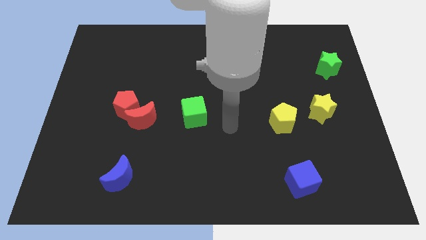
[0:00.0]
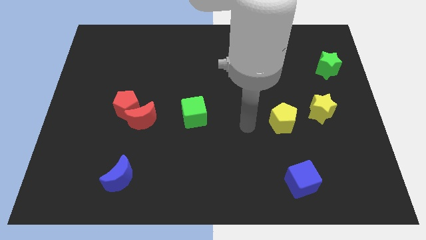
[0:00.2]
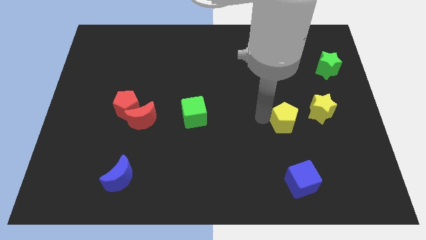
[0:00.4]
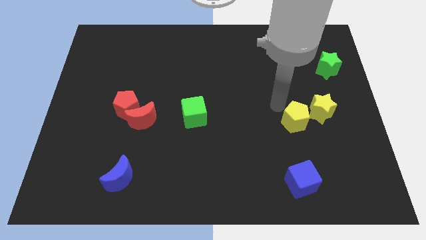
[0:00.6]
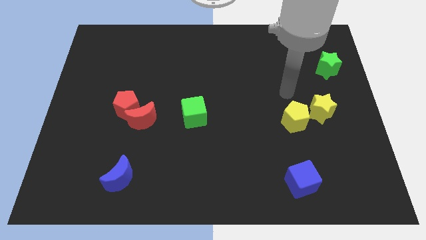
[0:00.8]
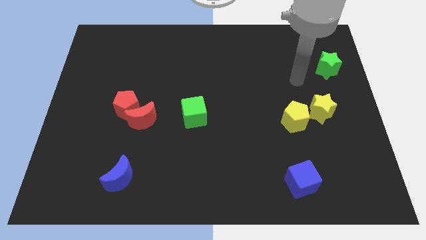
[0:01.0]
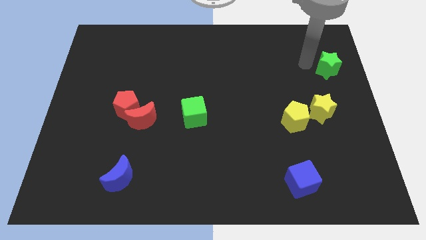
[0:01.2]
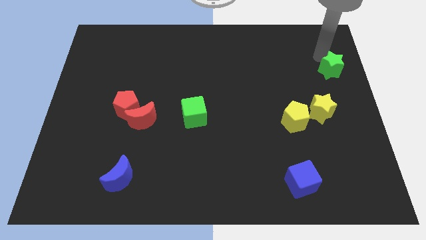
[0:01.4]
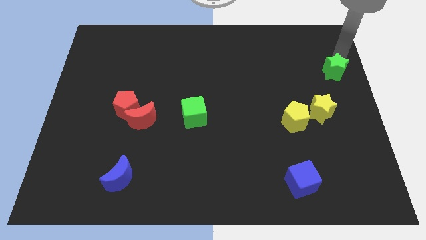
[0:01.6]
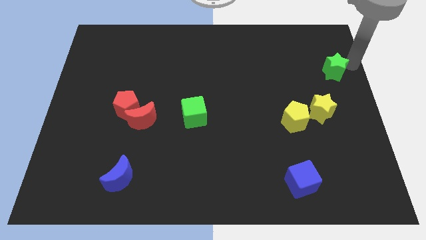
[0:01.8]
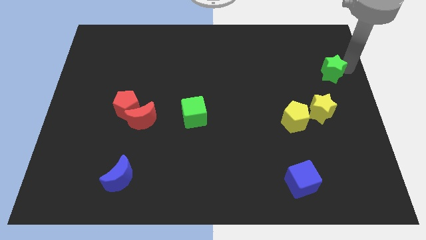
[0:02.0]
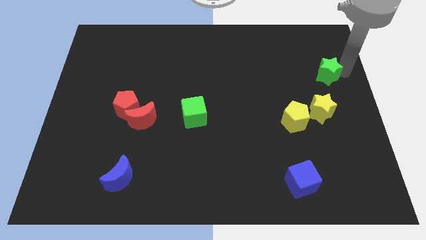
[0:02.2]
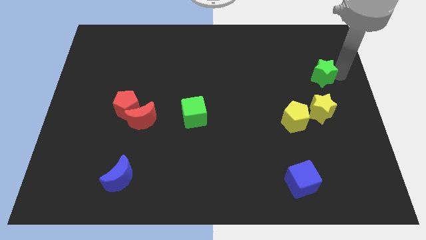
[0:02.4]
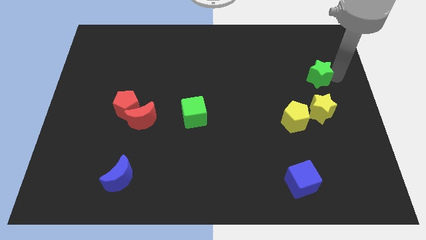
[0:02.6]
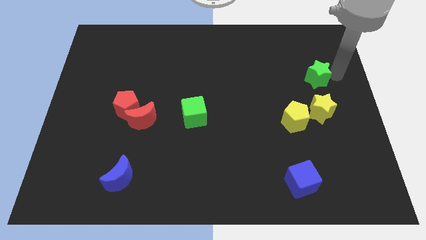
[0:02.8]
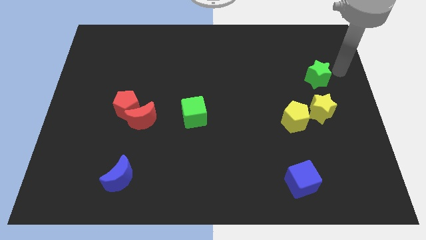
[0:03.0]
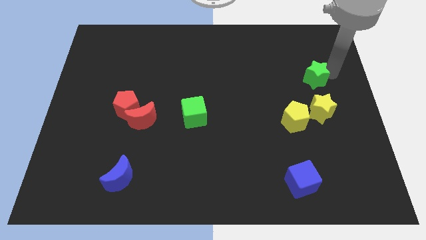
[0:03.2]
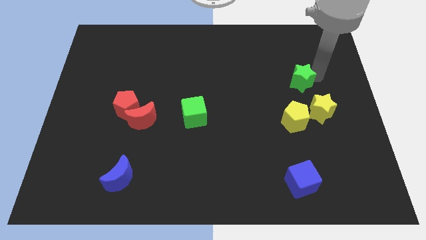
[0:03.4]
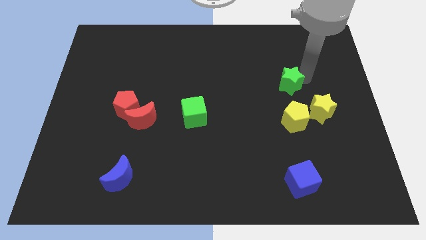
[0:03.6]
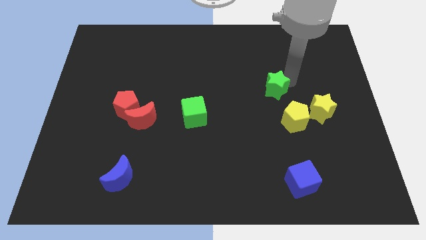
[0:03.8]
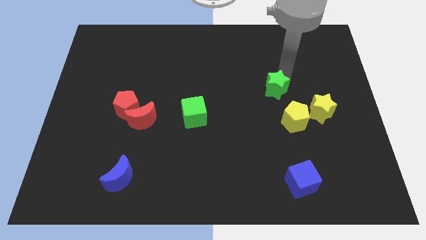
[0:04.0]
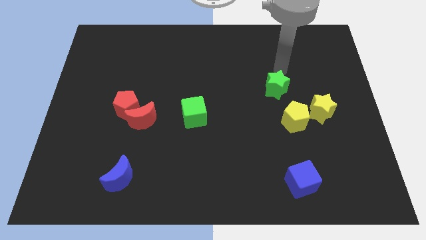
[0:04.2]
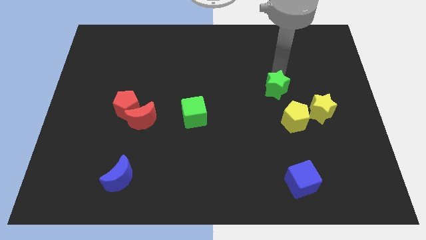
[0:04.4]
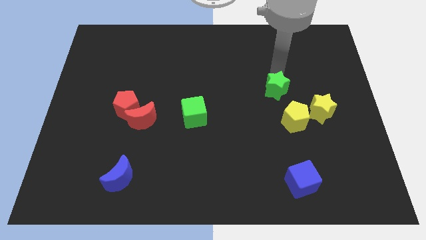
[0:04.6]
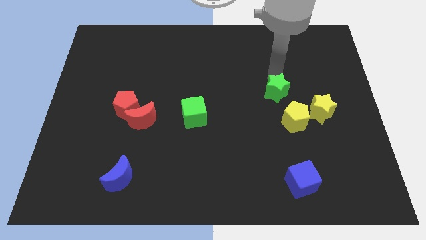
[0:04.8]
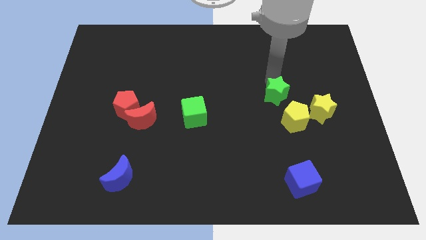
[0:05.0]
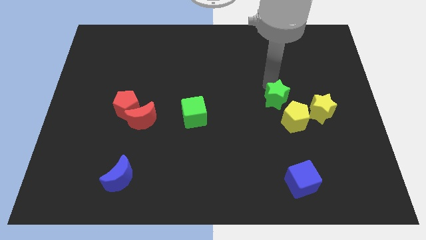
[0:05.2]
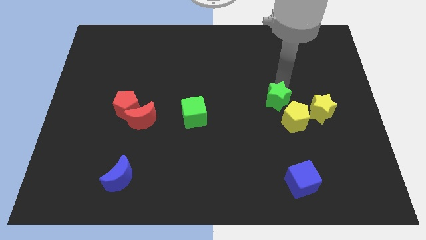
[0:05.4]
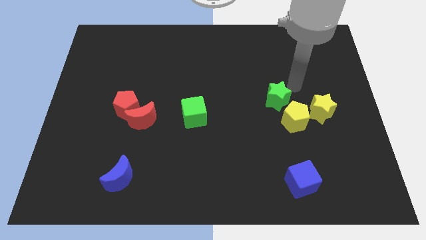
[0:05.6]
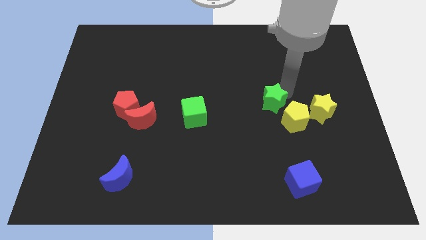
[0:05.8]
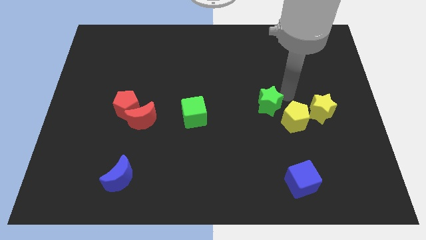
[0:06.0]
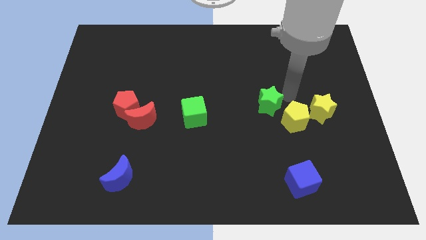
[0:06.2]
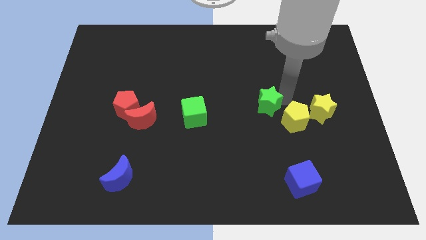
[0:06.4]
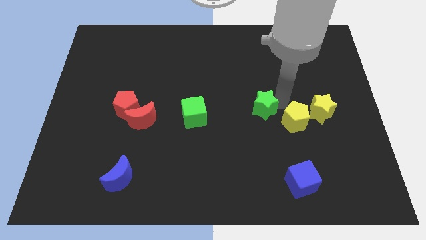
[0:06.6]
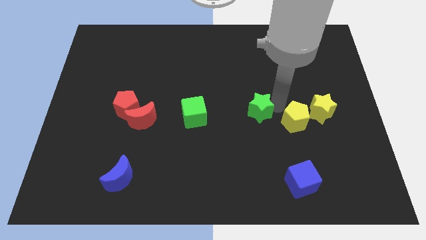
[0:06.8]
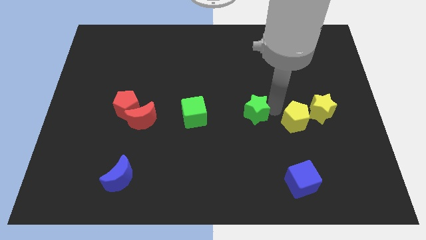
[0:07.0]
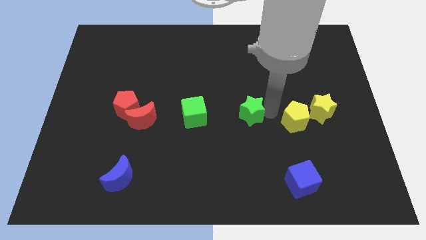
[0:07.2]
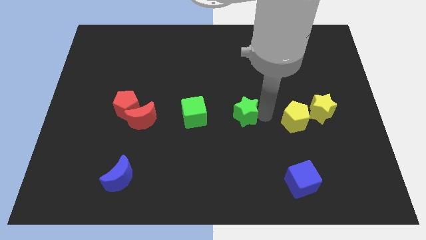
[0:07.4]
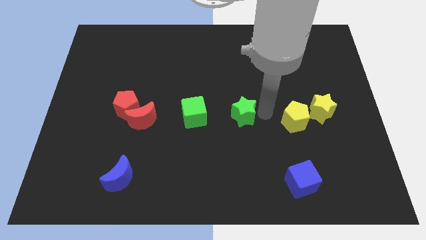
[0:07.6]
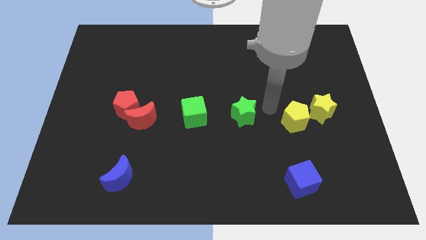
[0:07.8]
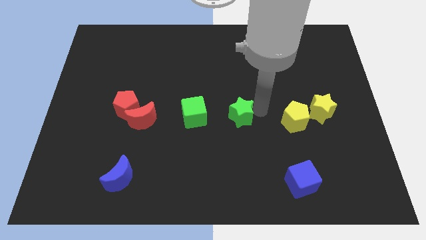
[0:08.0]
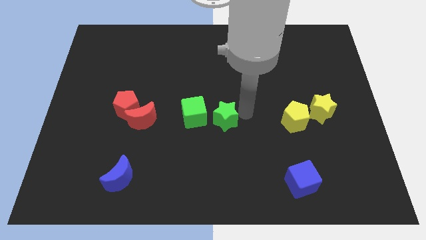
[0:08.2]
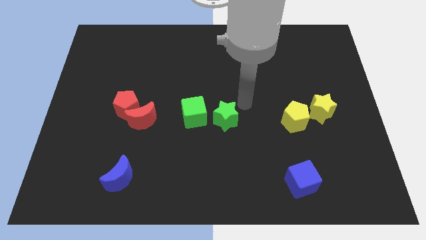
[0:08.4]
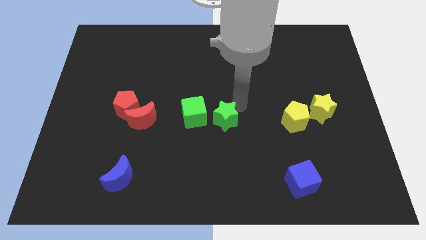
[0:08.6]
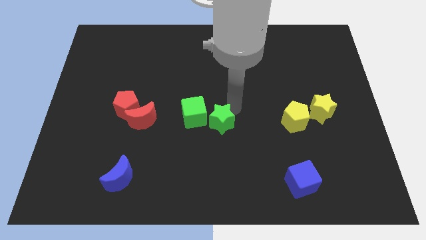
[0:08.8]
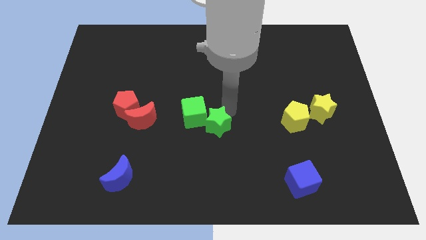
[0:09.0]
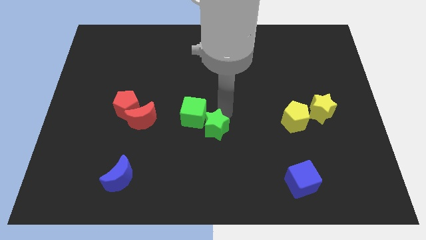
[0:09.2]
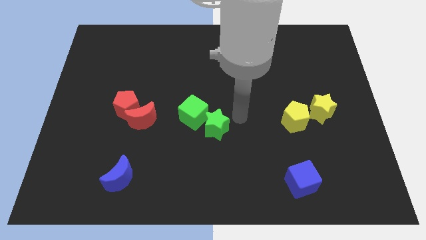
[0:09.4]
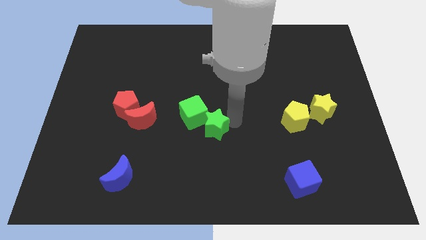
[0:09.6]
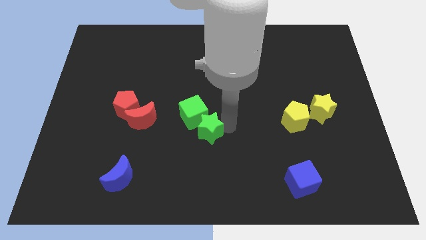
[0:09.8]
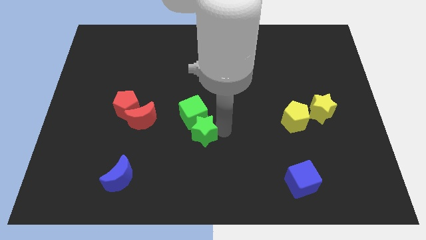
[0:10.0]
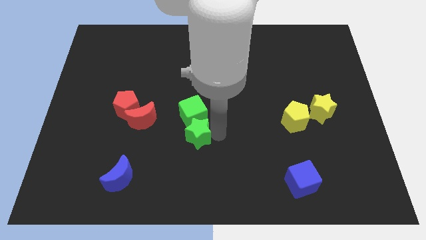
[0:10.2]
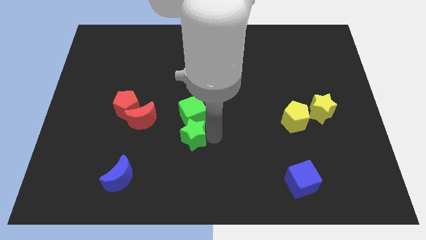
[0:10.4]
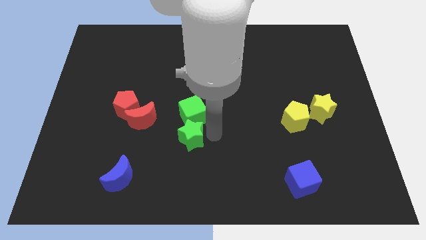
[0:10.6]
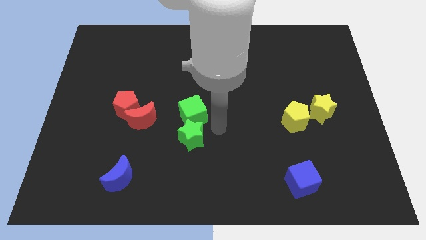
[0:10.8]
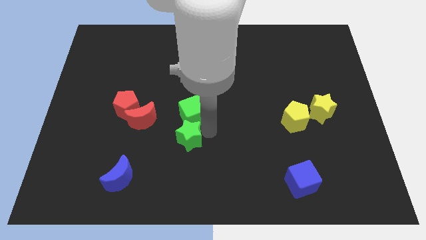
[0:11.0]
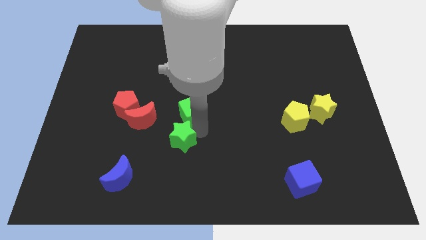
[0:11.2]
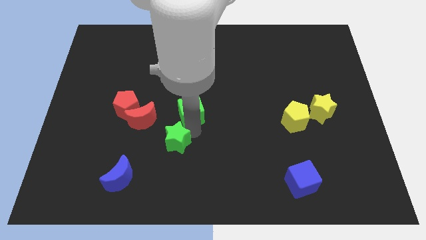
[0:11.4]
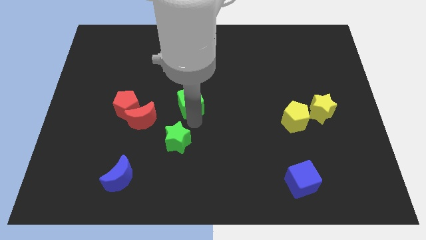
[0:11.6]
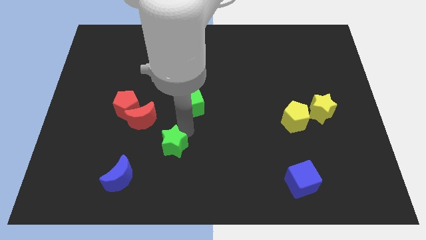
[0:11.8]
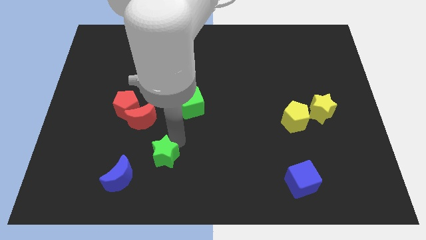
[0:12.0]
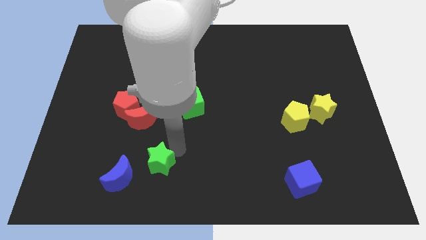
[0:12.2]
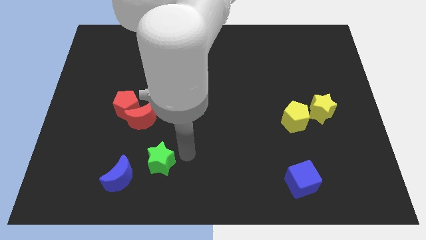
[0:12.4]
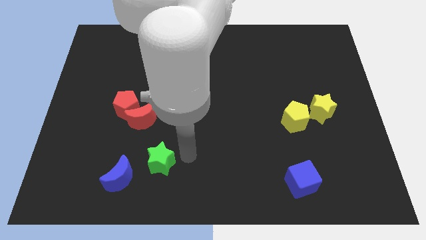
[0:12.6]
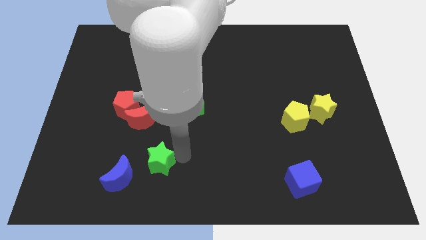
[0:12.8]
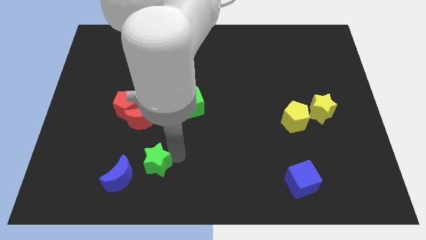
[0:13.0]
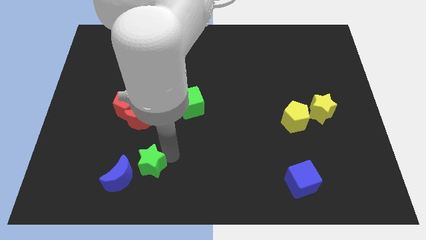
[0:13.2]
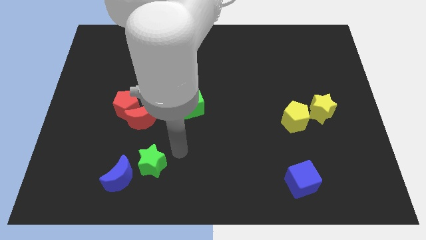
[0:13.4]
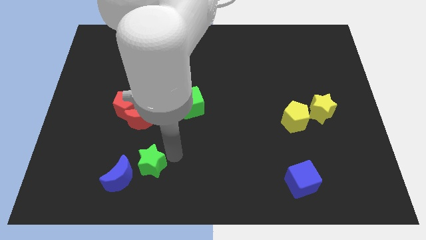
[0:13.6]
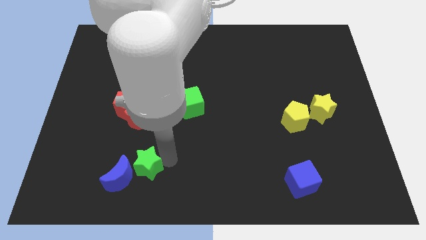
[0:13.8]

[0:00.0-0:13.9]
put the green star next to the blue moon

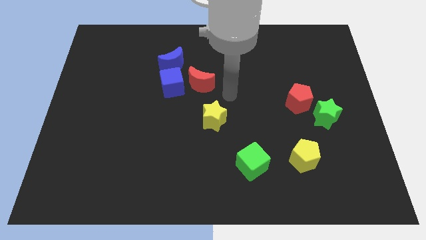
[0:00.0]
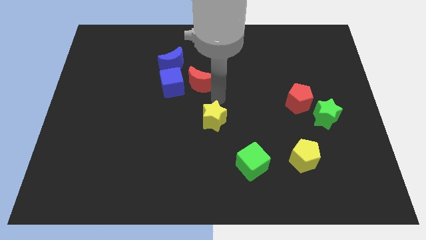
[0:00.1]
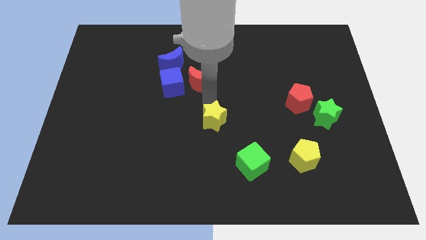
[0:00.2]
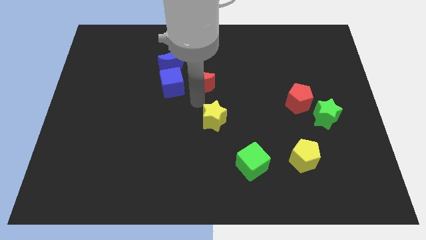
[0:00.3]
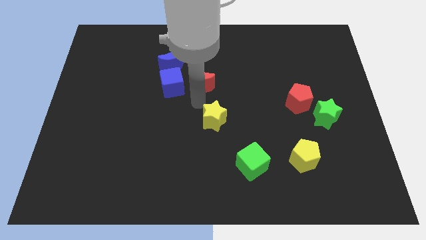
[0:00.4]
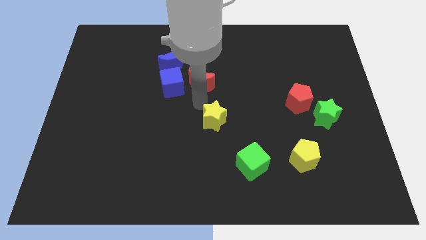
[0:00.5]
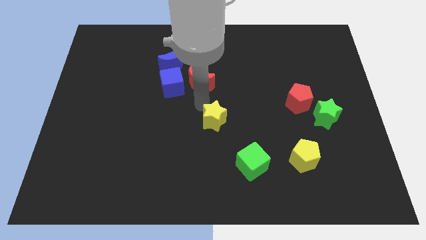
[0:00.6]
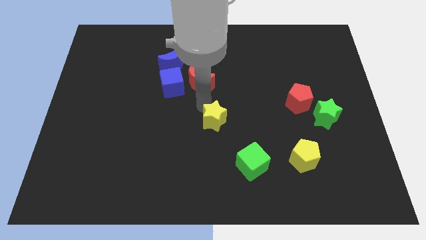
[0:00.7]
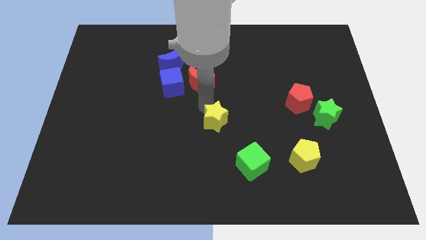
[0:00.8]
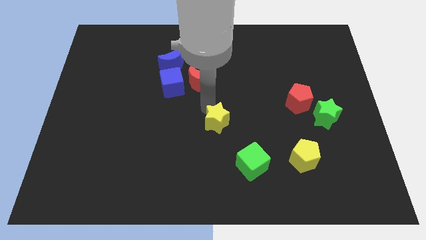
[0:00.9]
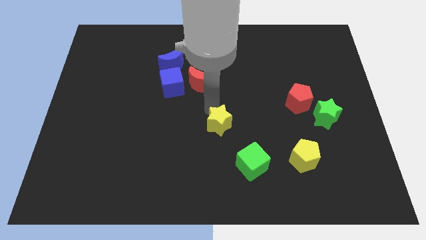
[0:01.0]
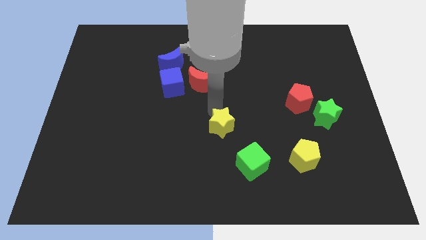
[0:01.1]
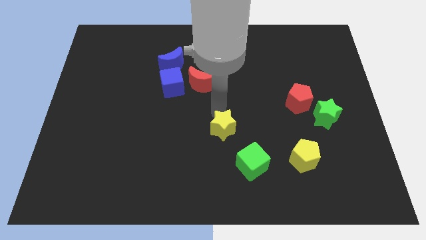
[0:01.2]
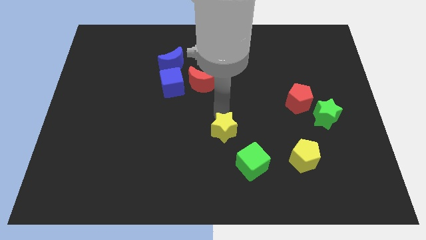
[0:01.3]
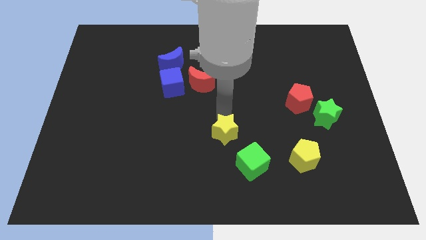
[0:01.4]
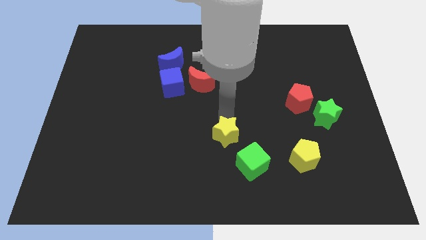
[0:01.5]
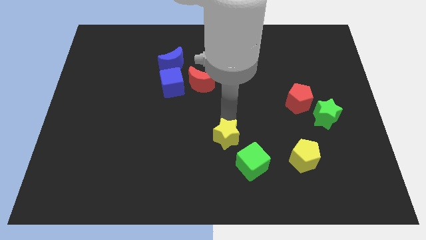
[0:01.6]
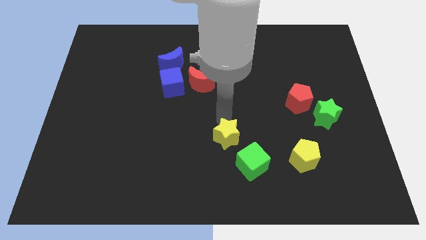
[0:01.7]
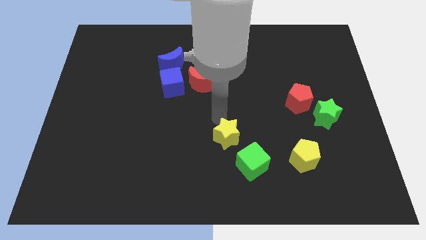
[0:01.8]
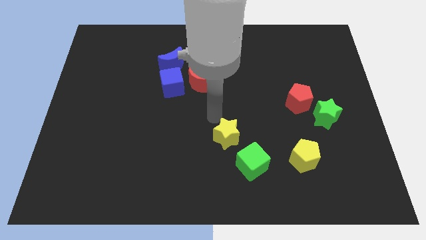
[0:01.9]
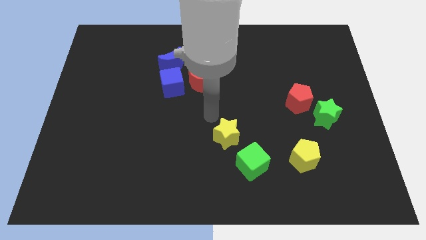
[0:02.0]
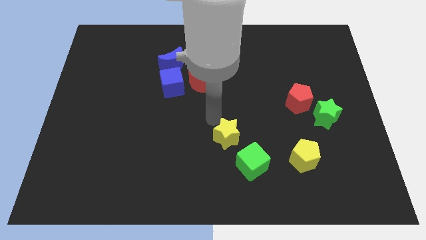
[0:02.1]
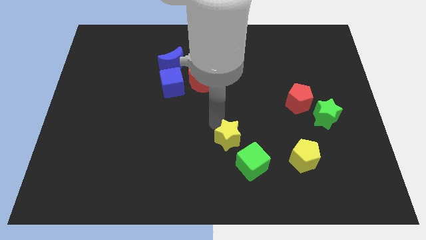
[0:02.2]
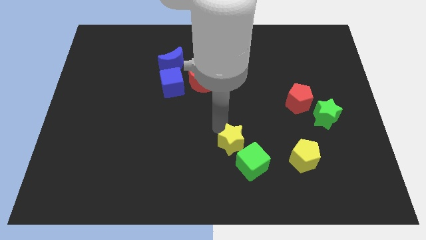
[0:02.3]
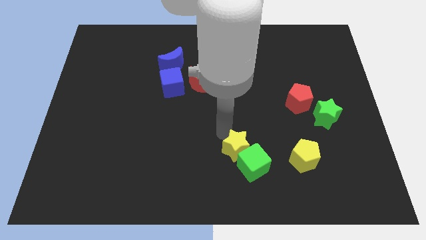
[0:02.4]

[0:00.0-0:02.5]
move the yellow star close to the green cube
